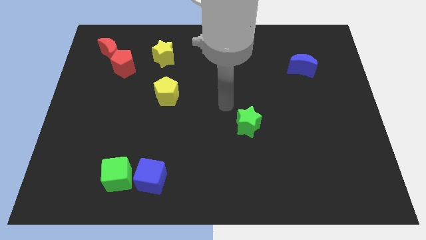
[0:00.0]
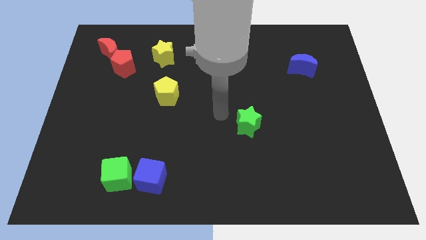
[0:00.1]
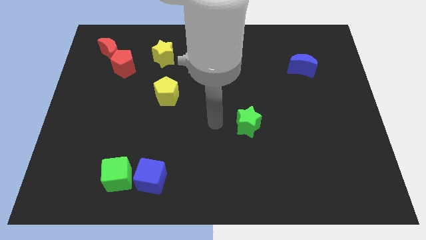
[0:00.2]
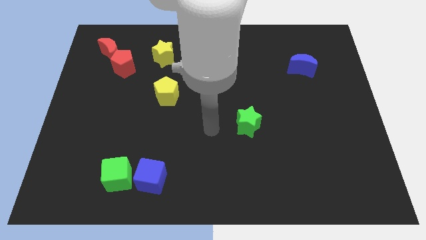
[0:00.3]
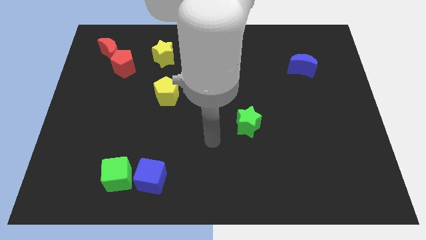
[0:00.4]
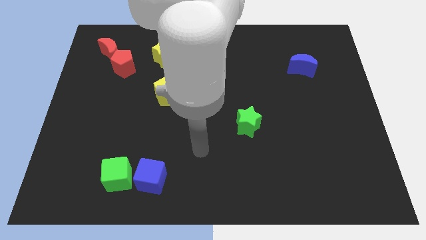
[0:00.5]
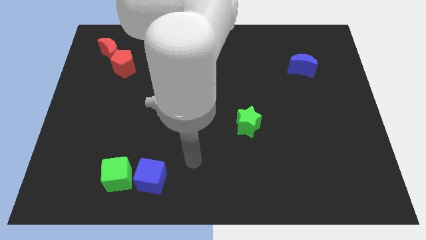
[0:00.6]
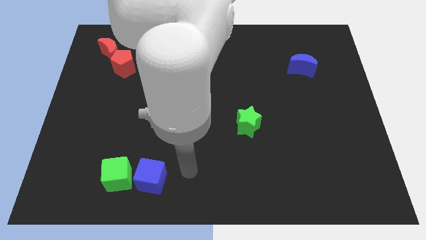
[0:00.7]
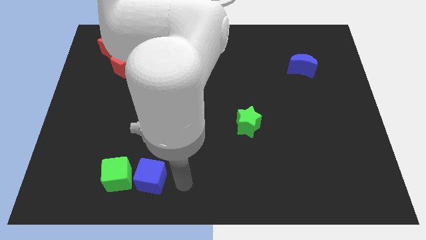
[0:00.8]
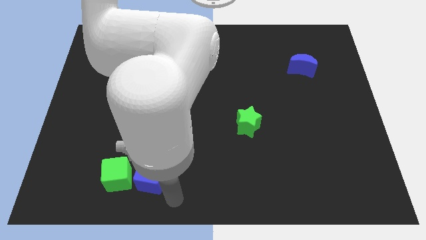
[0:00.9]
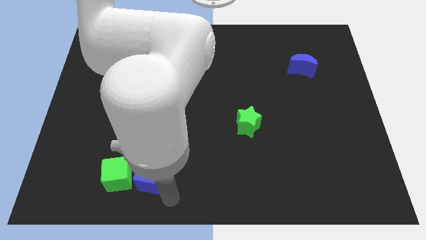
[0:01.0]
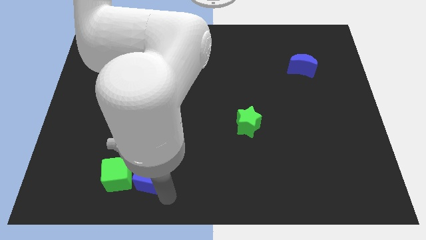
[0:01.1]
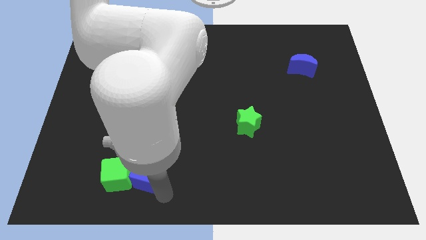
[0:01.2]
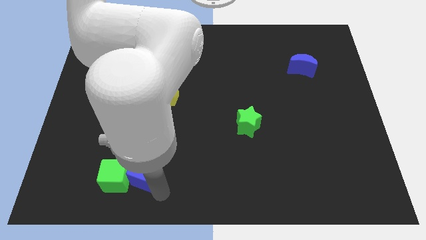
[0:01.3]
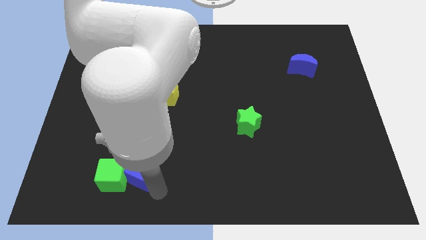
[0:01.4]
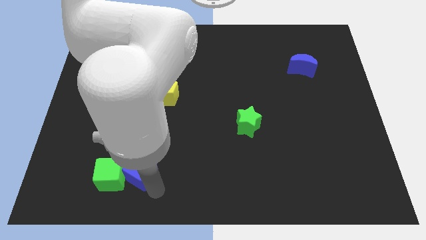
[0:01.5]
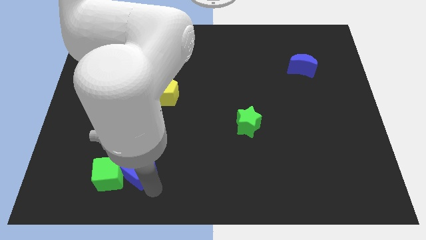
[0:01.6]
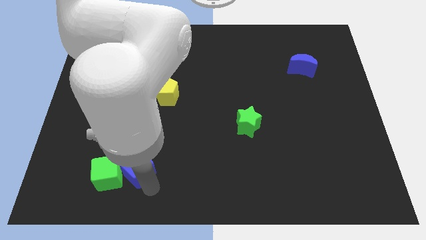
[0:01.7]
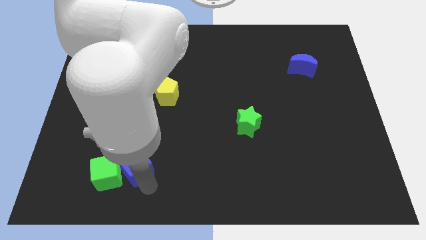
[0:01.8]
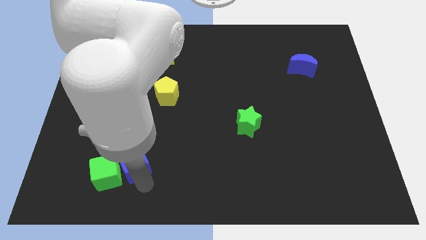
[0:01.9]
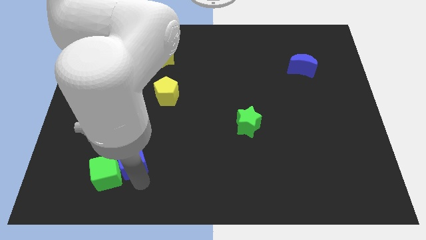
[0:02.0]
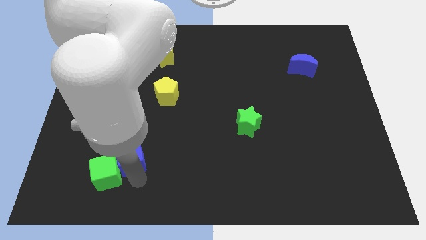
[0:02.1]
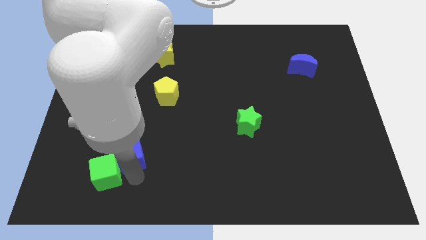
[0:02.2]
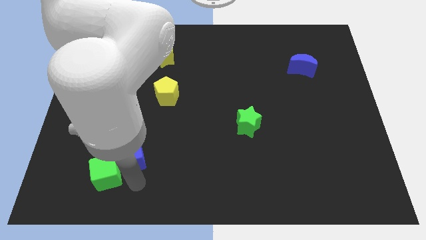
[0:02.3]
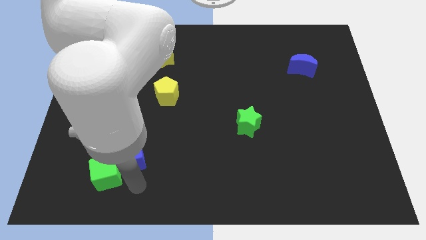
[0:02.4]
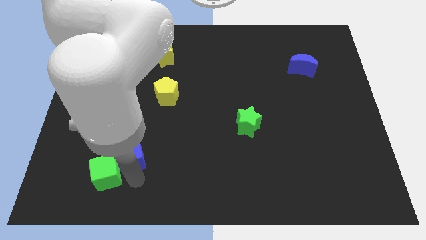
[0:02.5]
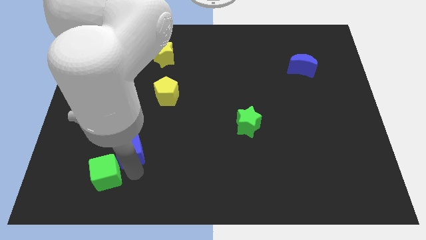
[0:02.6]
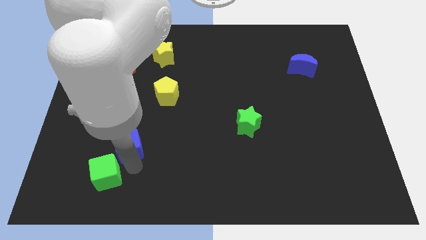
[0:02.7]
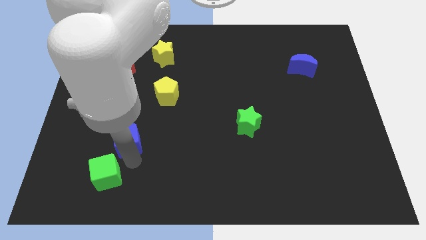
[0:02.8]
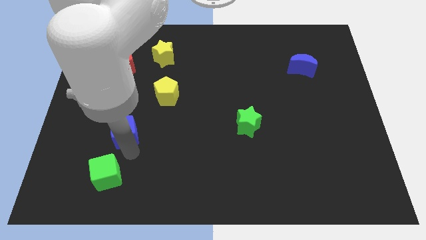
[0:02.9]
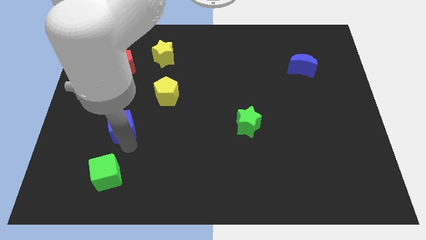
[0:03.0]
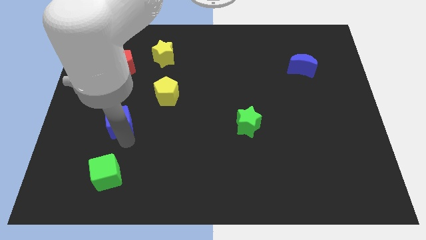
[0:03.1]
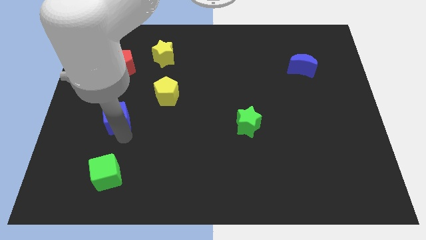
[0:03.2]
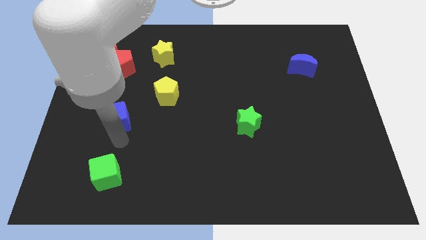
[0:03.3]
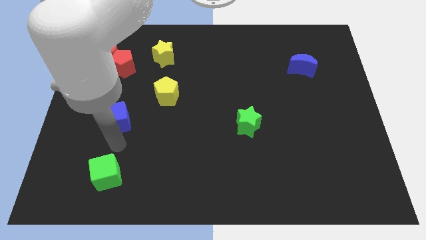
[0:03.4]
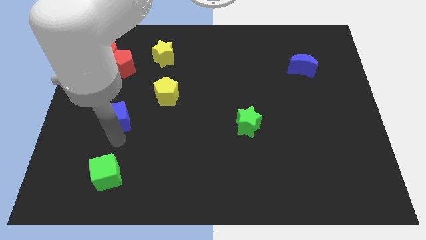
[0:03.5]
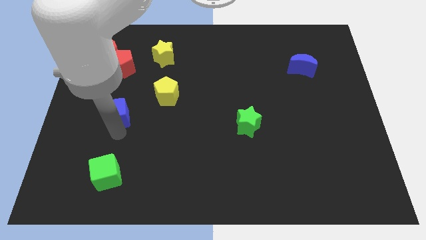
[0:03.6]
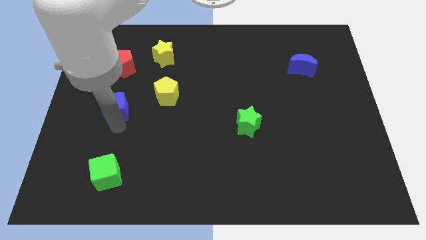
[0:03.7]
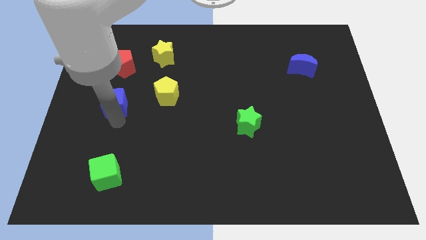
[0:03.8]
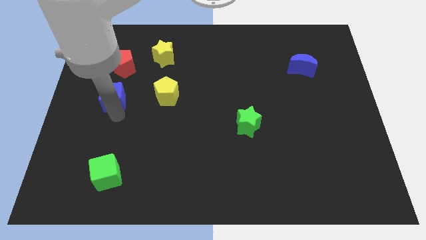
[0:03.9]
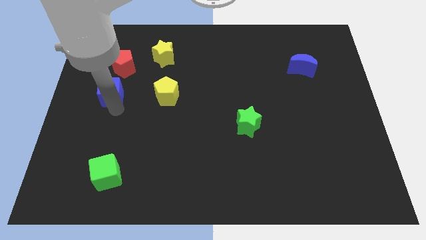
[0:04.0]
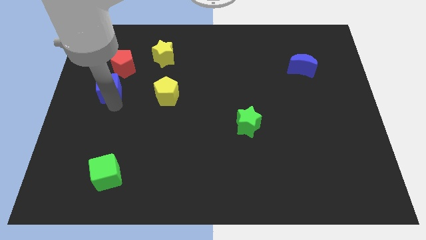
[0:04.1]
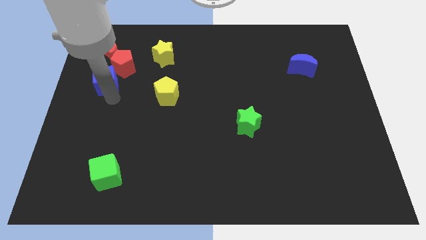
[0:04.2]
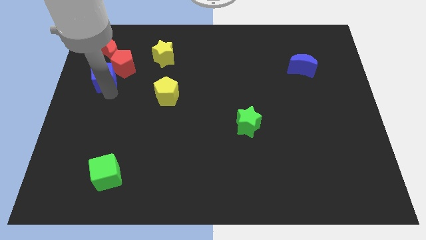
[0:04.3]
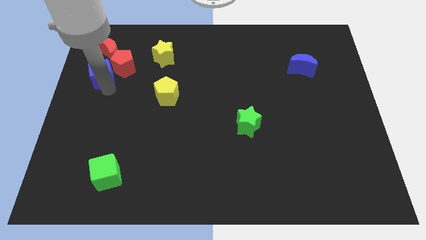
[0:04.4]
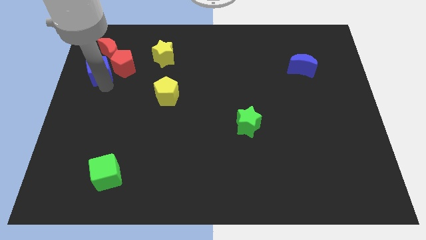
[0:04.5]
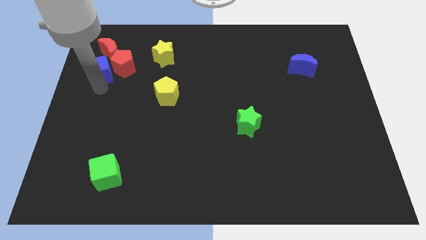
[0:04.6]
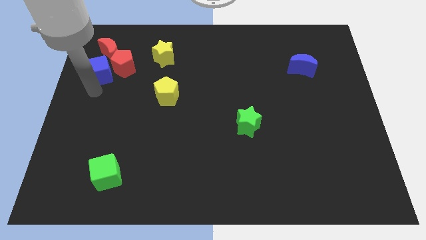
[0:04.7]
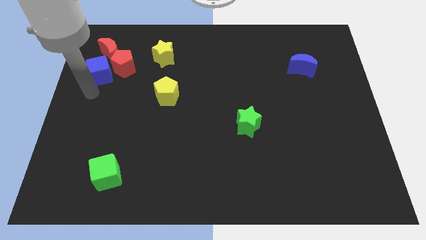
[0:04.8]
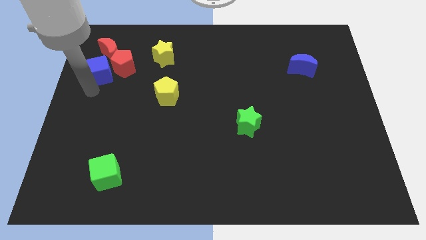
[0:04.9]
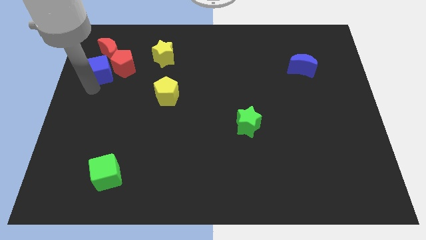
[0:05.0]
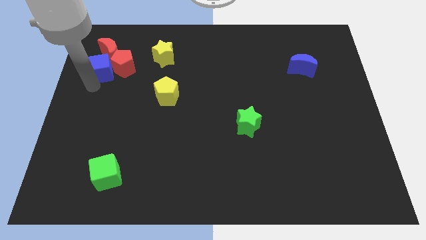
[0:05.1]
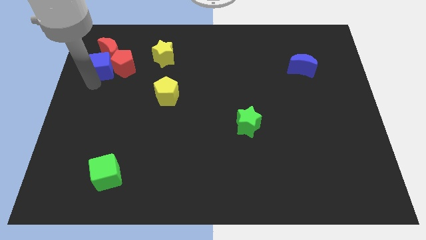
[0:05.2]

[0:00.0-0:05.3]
slide the blue cube towards the red moon

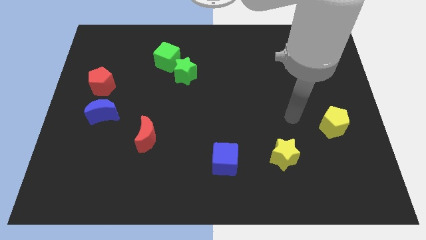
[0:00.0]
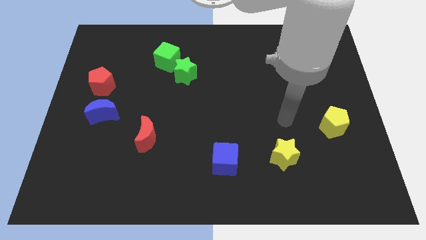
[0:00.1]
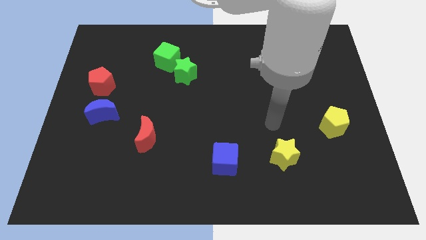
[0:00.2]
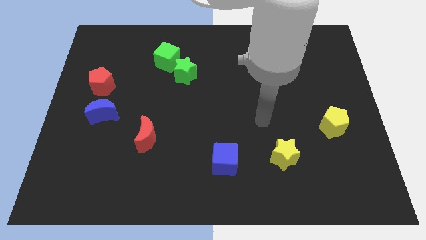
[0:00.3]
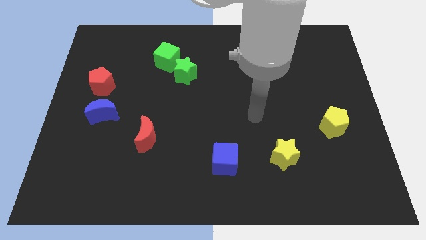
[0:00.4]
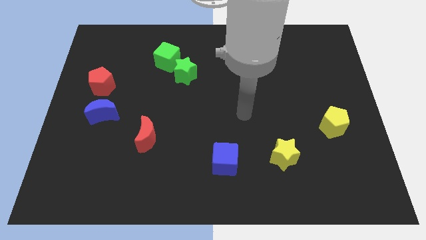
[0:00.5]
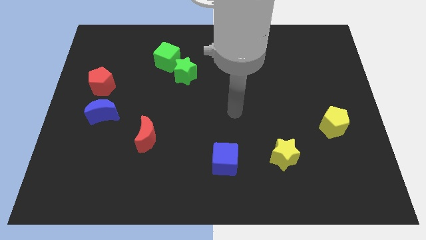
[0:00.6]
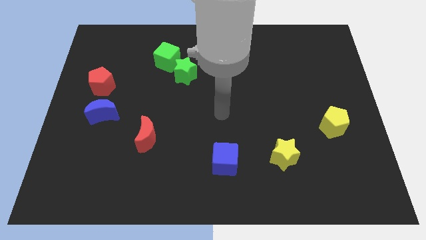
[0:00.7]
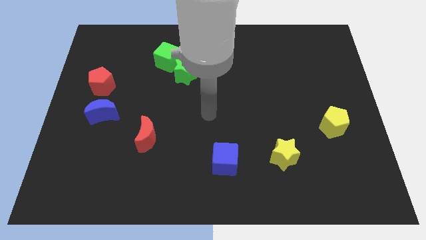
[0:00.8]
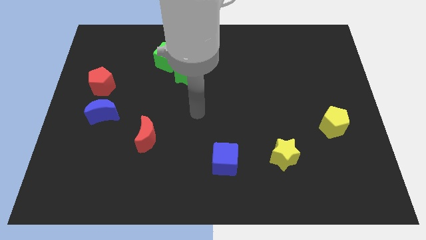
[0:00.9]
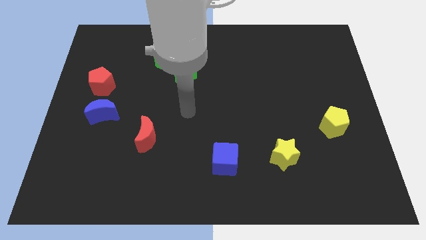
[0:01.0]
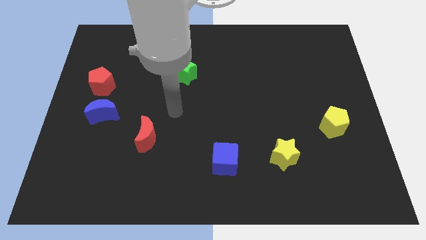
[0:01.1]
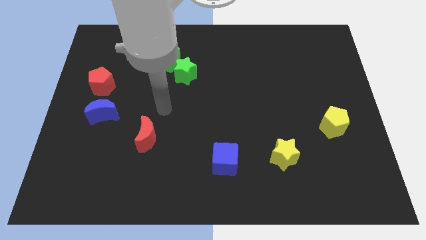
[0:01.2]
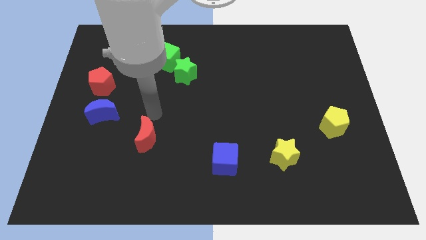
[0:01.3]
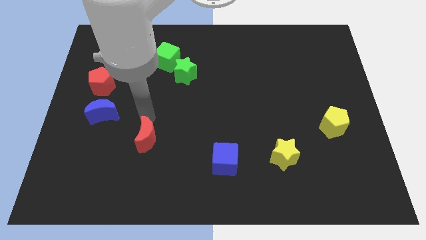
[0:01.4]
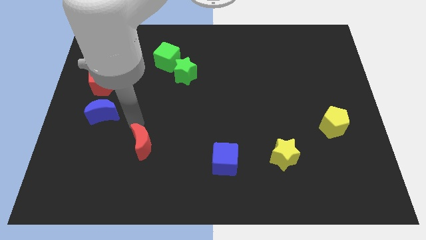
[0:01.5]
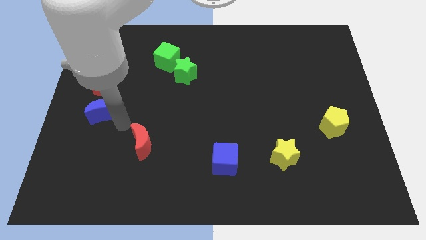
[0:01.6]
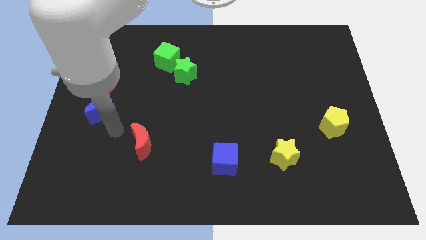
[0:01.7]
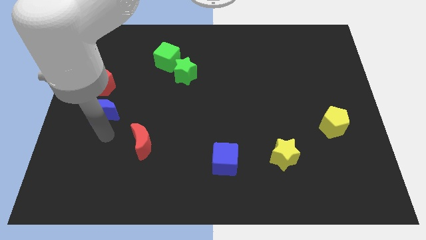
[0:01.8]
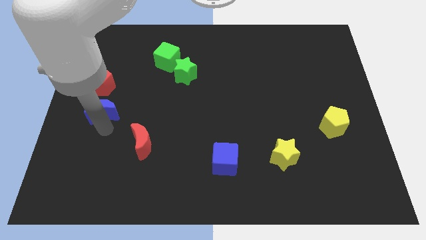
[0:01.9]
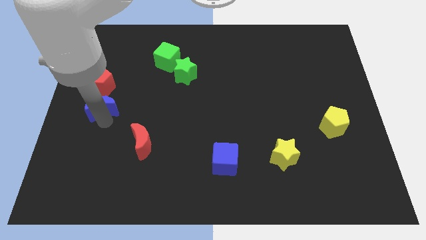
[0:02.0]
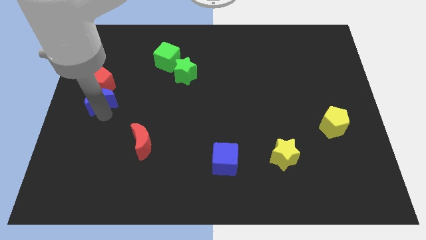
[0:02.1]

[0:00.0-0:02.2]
move the blue moon close to the red pentagon
